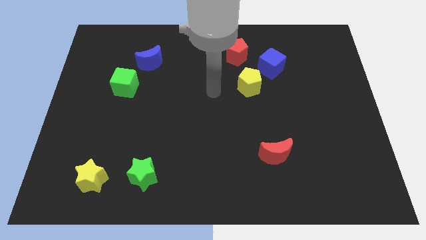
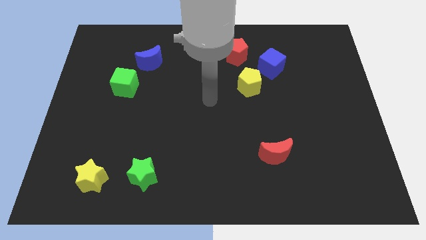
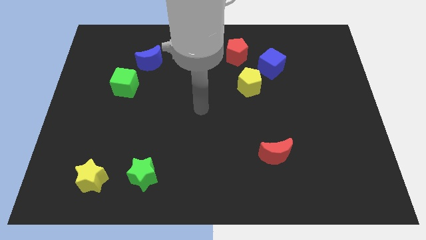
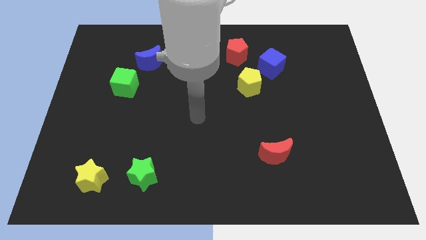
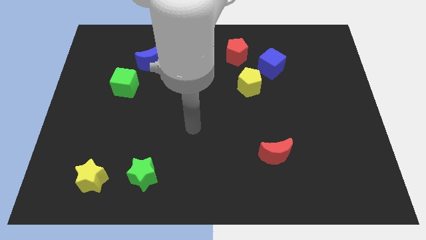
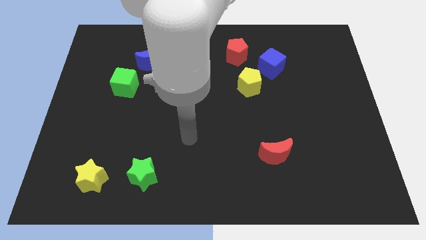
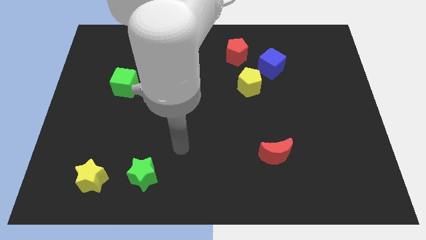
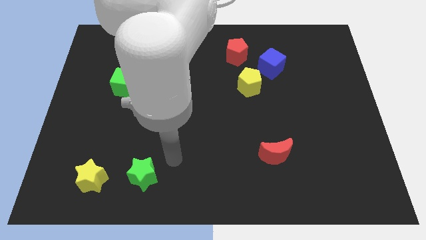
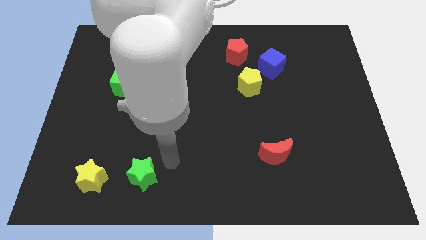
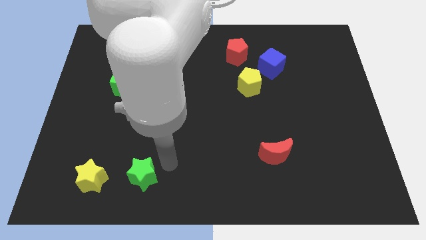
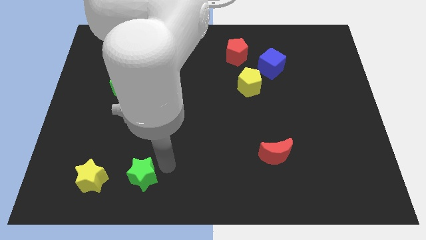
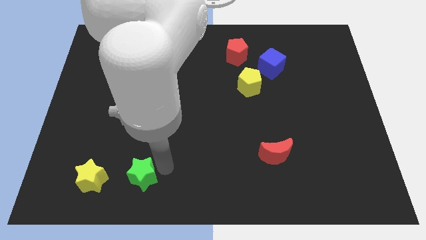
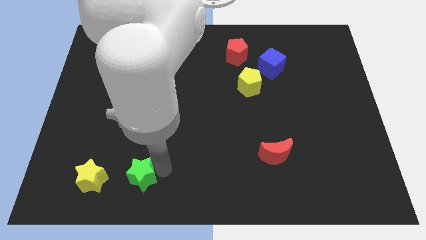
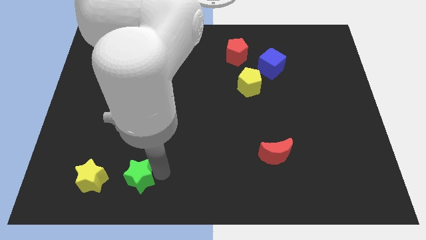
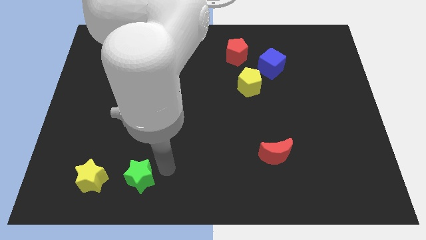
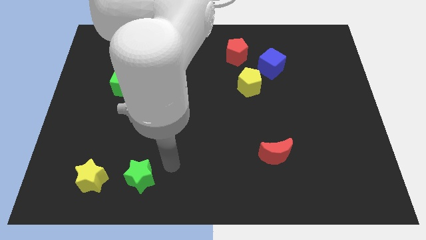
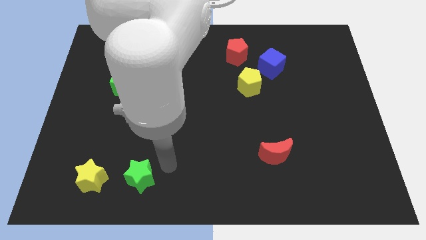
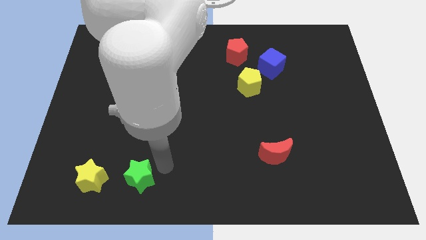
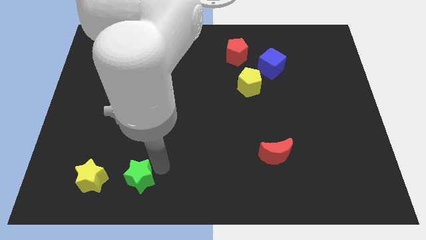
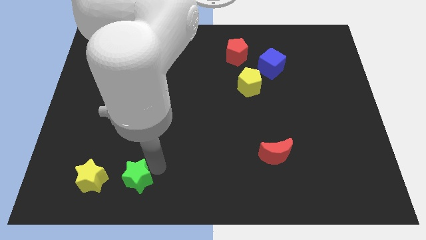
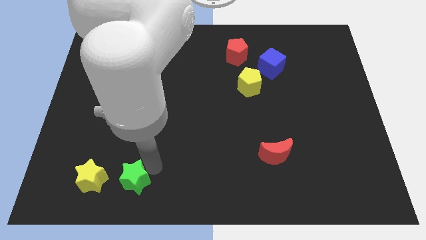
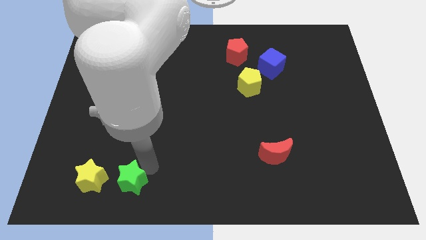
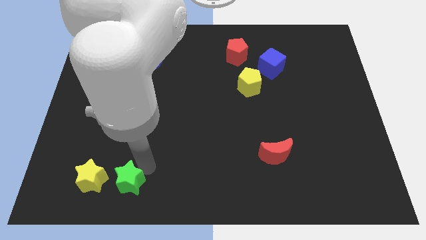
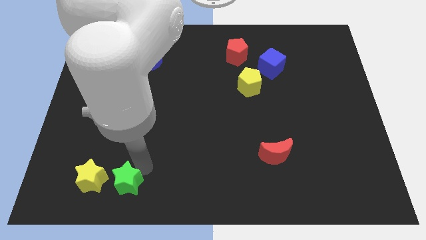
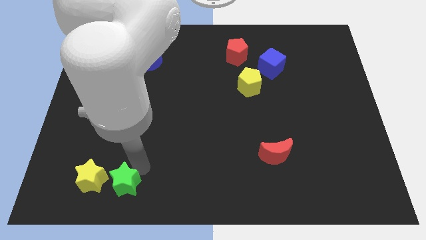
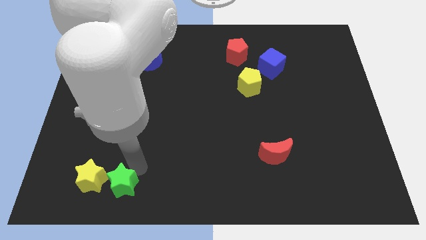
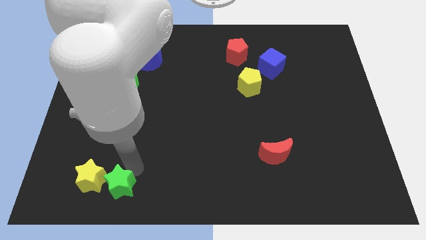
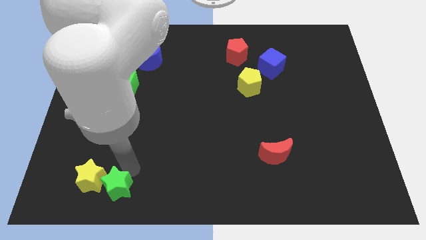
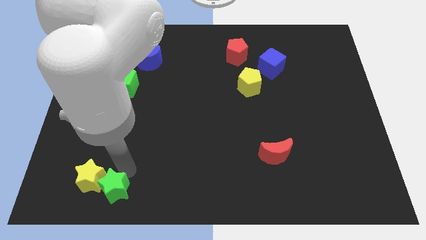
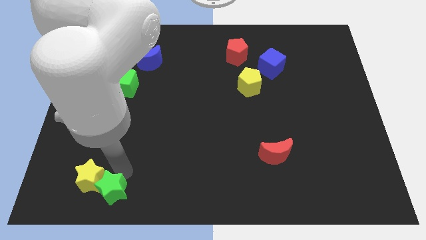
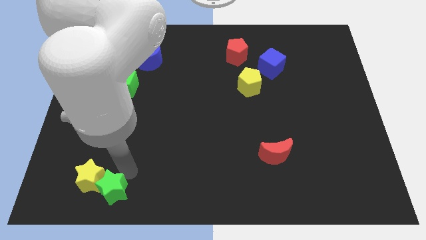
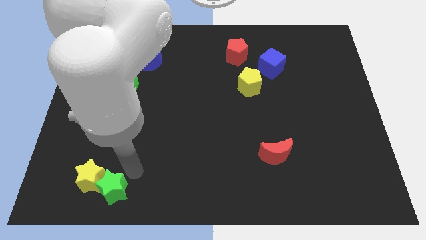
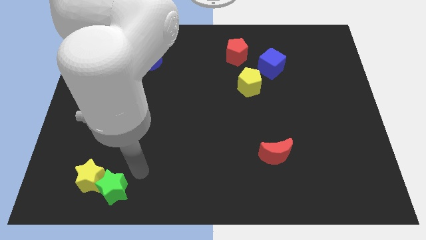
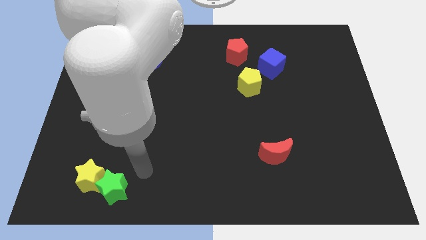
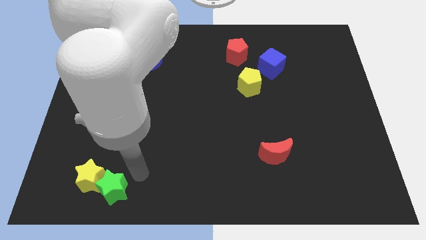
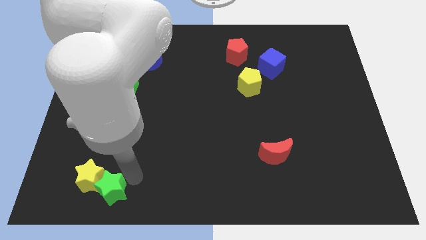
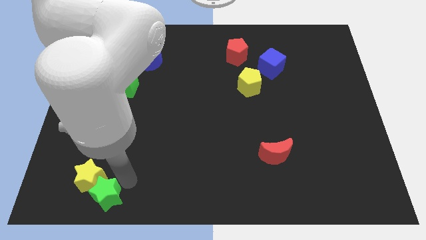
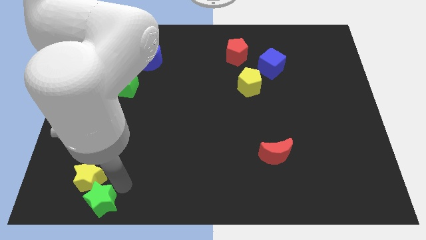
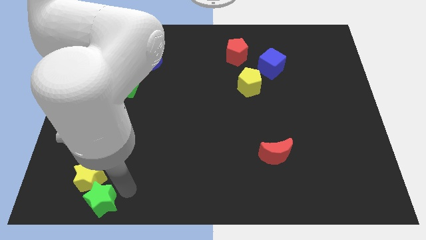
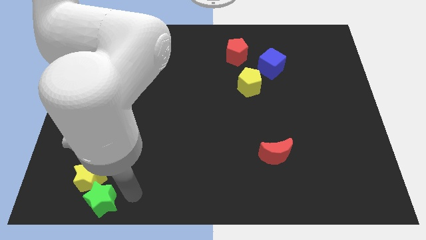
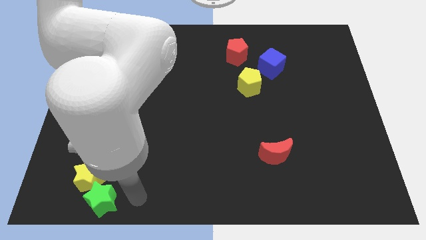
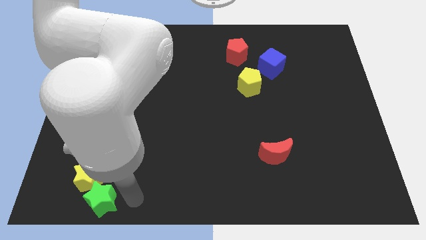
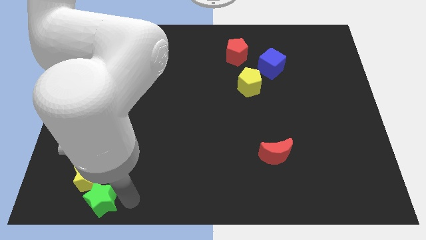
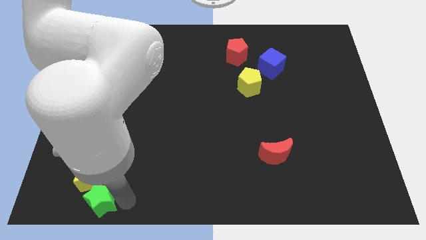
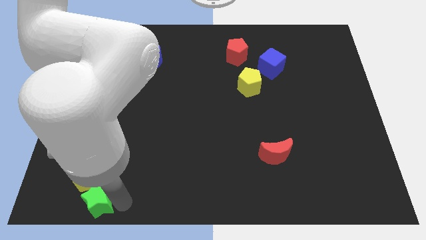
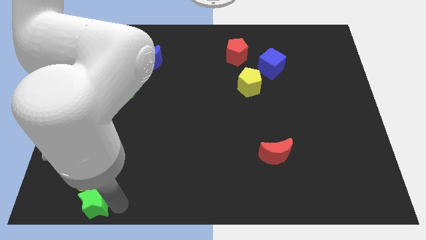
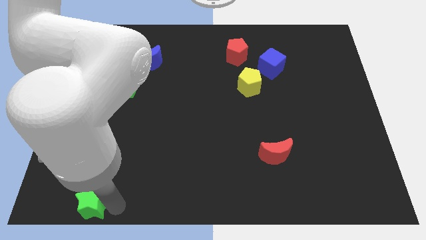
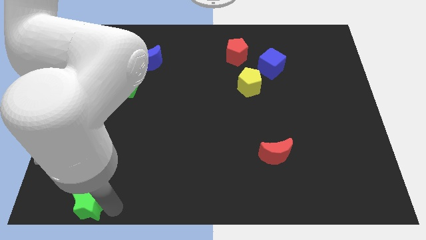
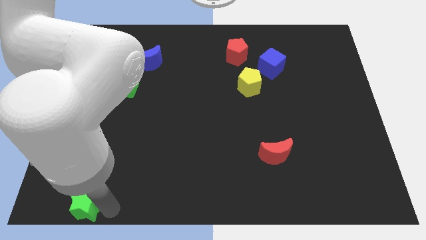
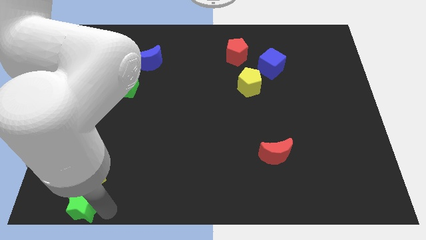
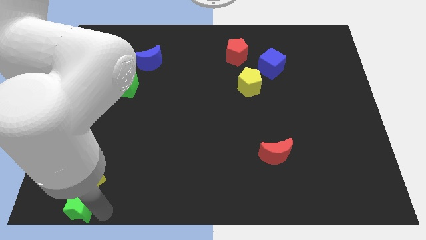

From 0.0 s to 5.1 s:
push the green star to the bottom left of the board

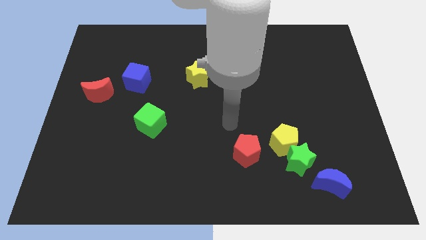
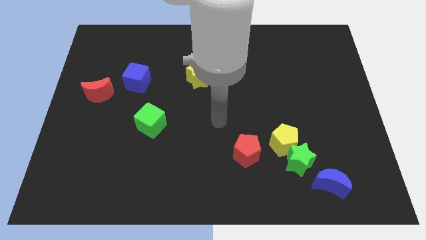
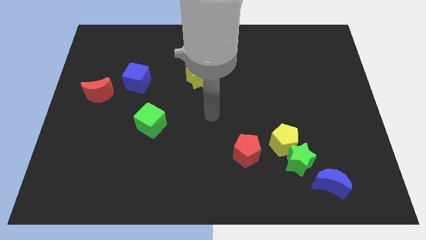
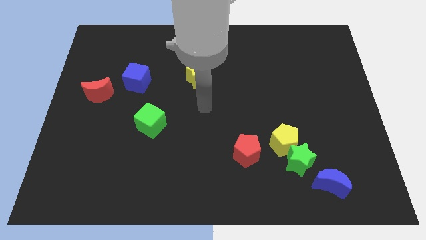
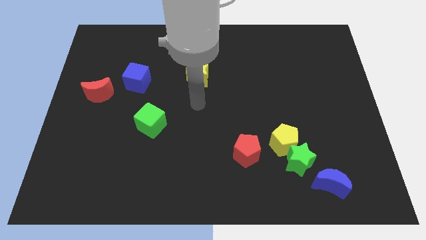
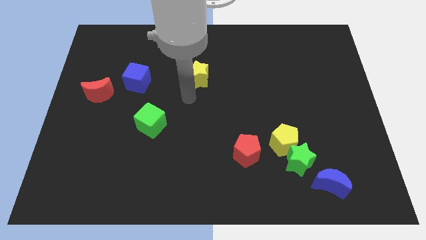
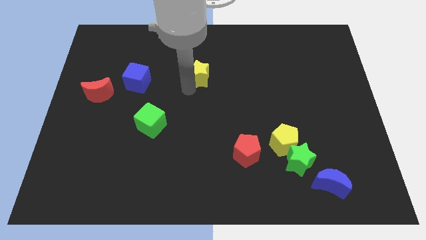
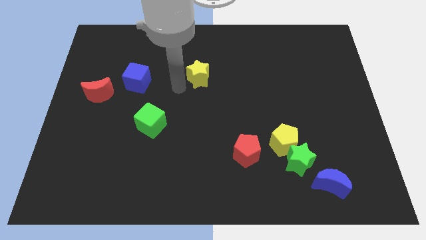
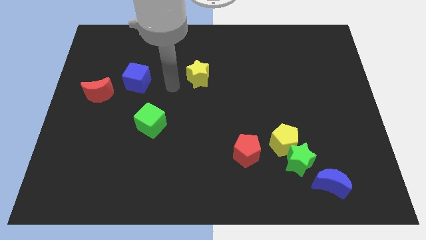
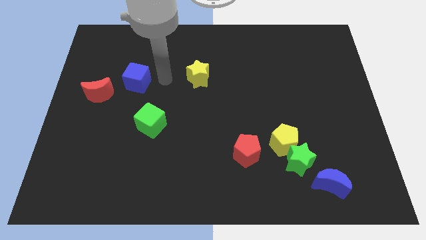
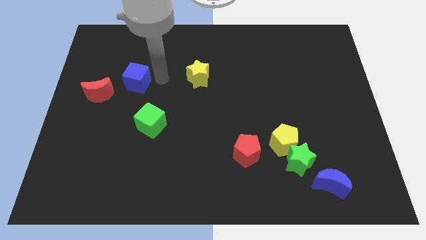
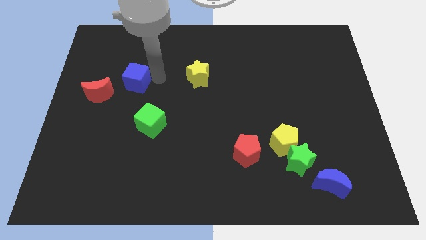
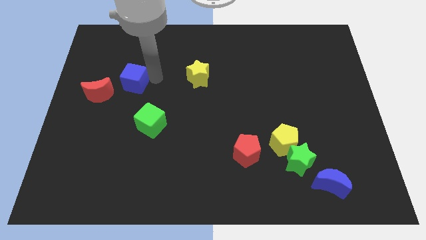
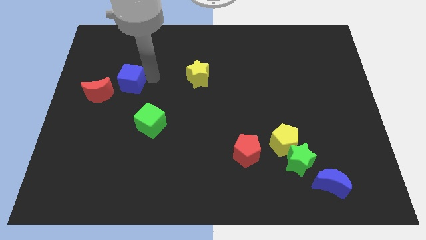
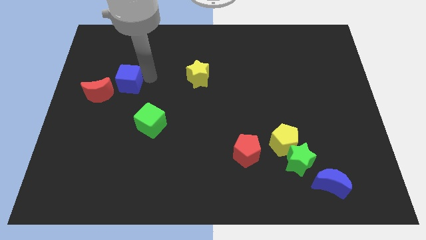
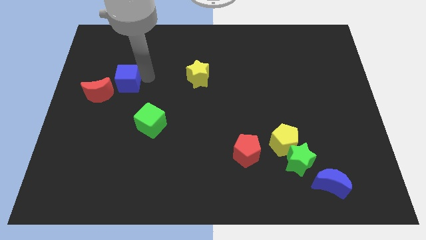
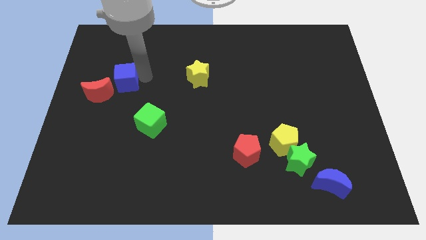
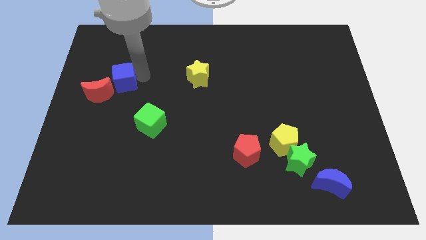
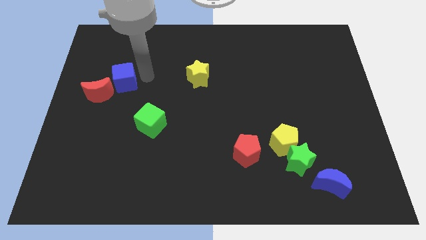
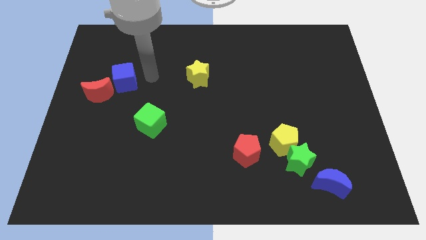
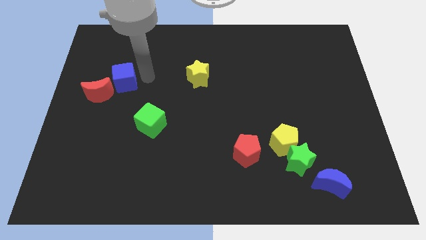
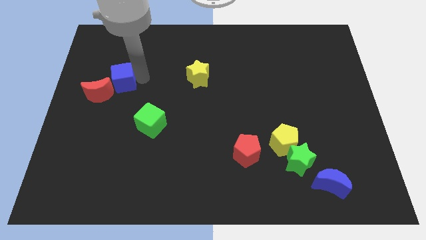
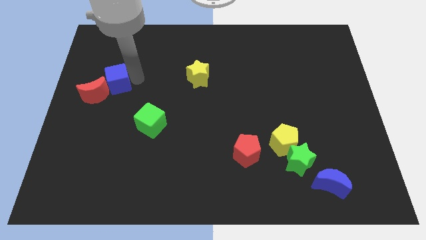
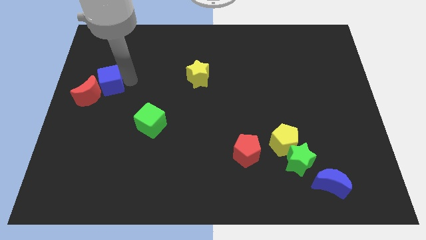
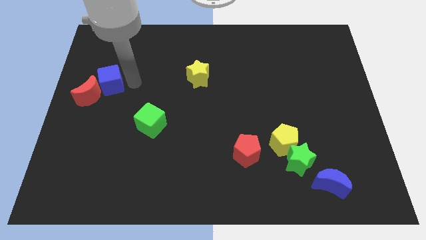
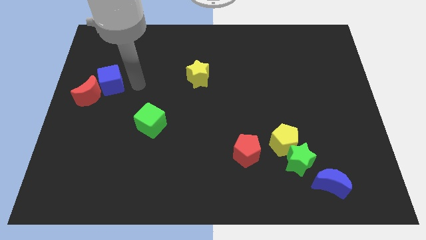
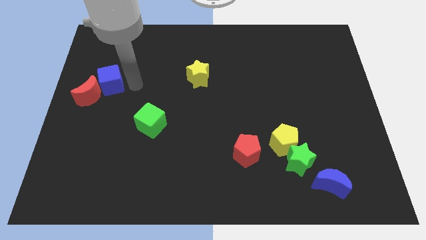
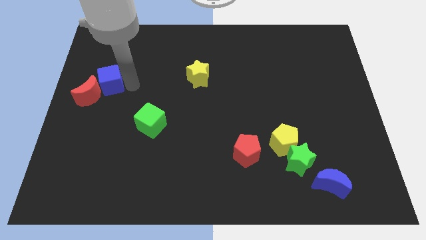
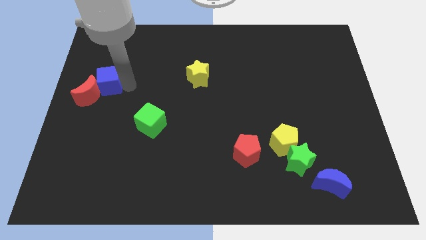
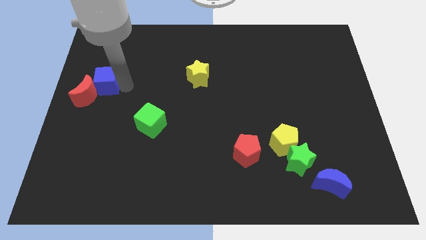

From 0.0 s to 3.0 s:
slide the blue cube to the left side
